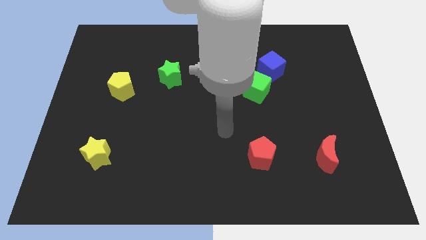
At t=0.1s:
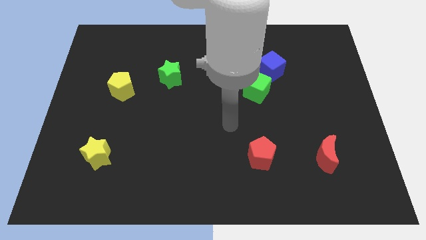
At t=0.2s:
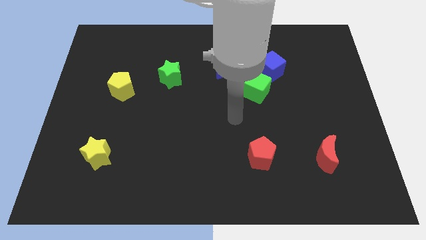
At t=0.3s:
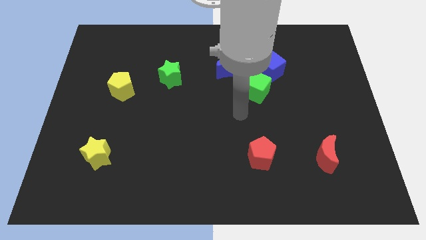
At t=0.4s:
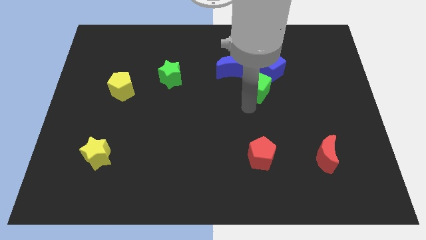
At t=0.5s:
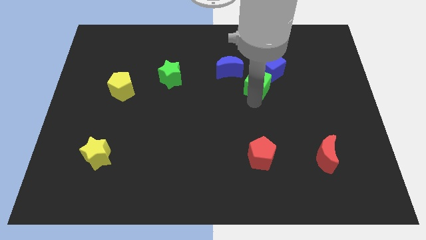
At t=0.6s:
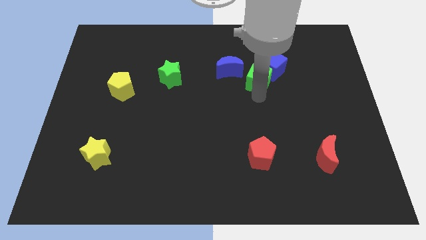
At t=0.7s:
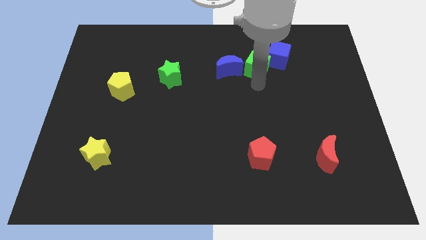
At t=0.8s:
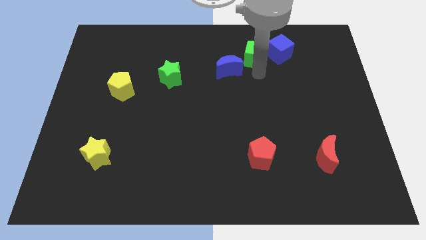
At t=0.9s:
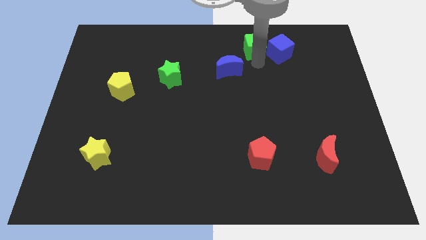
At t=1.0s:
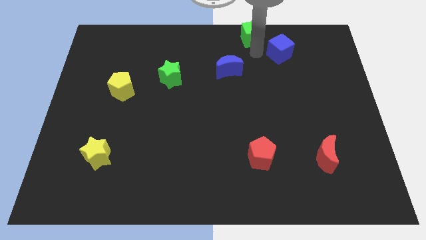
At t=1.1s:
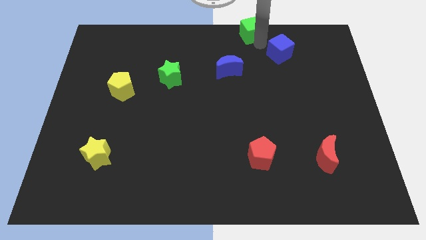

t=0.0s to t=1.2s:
pull the blue cube apart from the green cube

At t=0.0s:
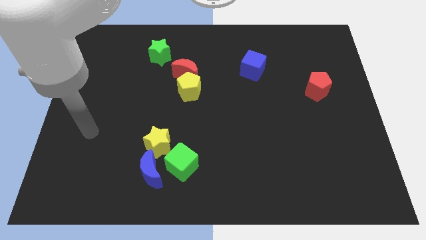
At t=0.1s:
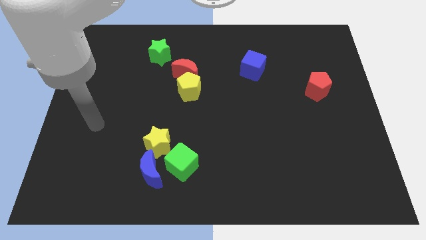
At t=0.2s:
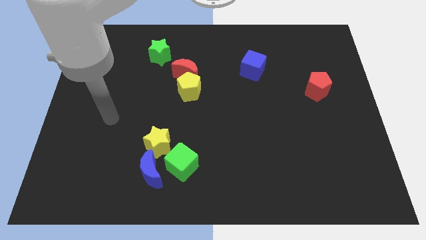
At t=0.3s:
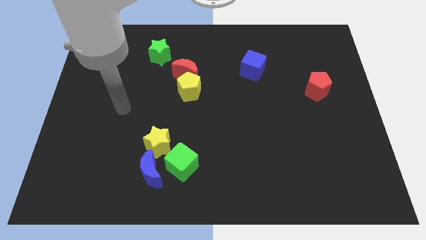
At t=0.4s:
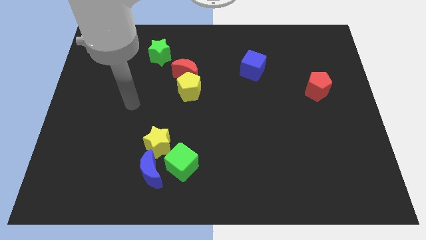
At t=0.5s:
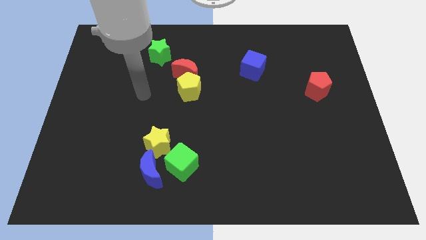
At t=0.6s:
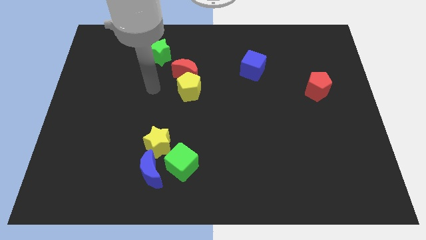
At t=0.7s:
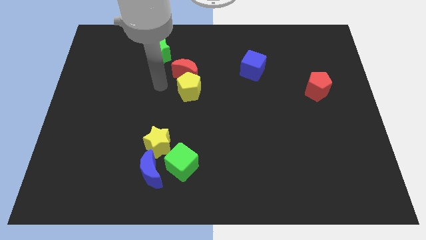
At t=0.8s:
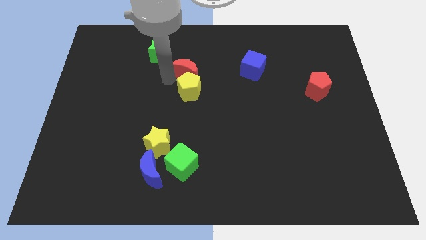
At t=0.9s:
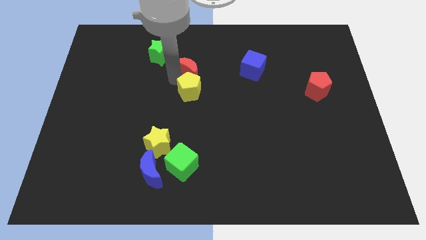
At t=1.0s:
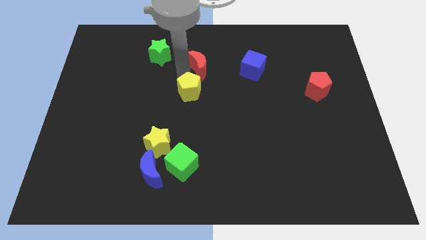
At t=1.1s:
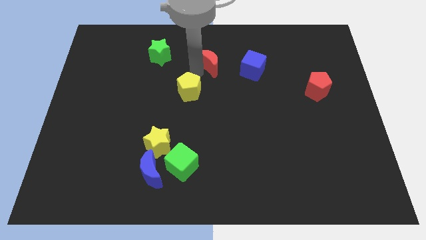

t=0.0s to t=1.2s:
move the yellow pentagon away from the red moon

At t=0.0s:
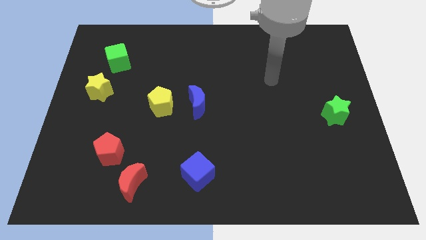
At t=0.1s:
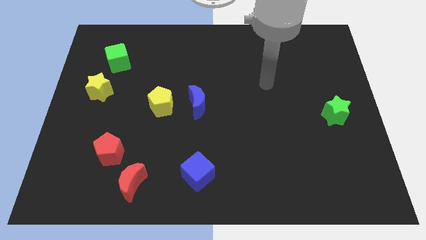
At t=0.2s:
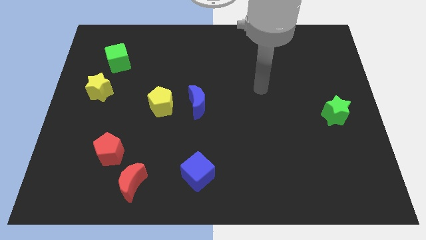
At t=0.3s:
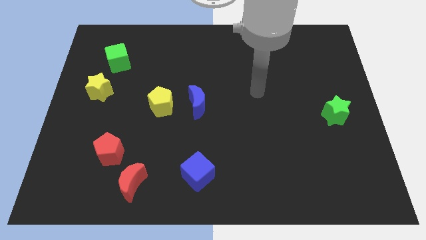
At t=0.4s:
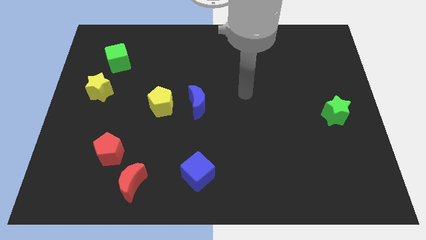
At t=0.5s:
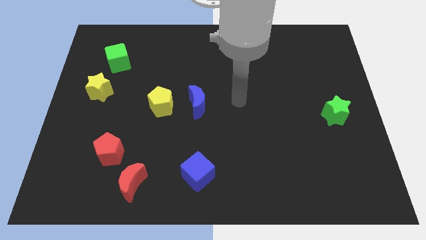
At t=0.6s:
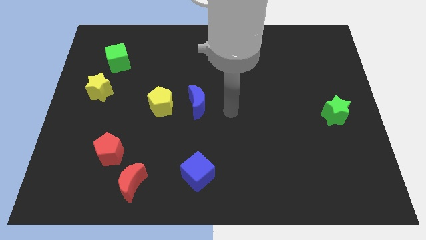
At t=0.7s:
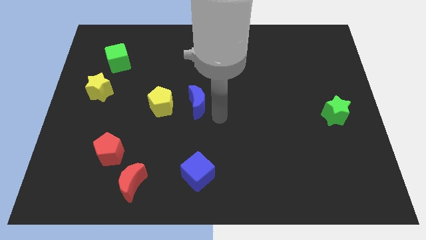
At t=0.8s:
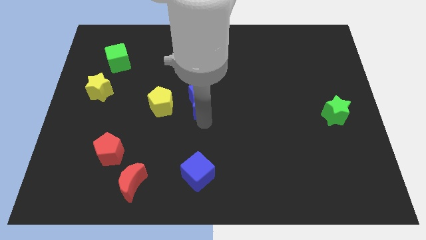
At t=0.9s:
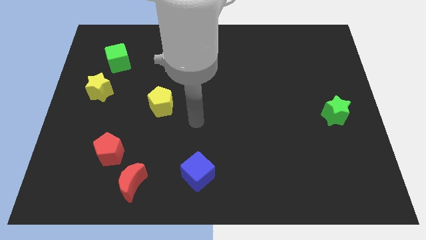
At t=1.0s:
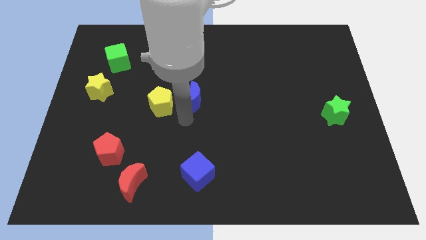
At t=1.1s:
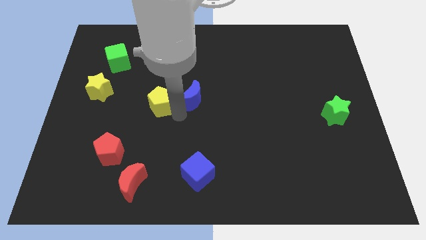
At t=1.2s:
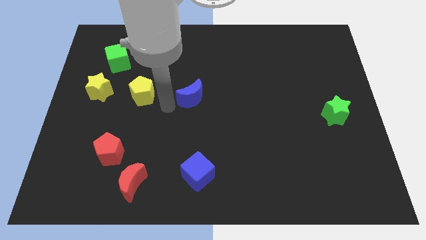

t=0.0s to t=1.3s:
separate the blue moon from the yellow pentagon

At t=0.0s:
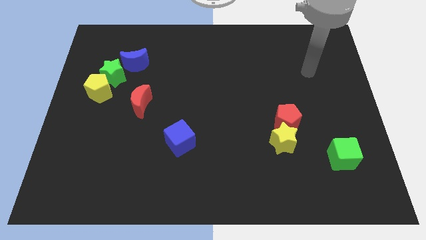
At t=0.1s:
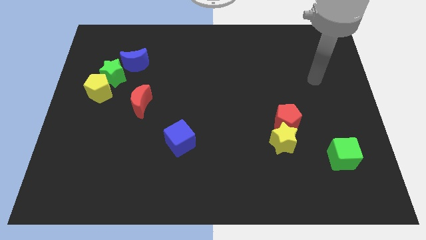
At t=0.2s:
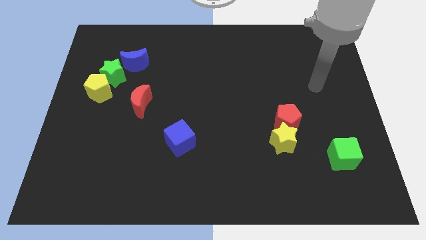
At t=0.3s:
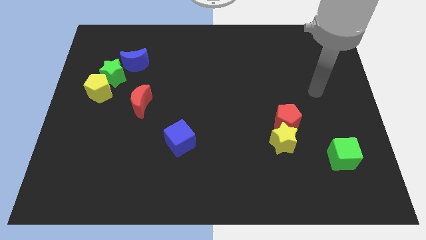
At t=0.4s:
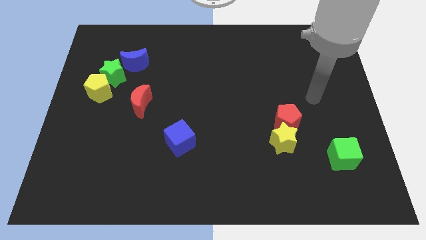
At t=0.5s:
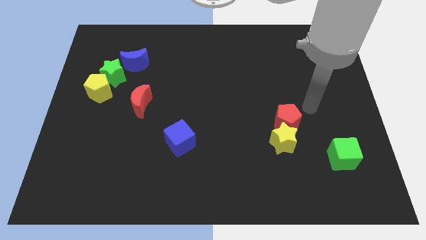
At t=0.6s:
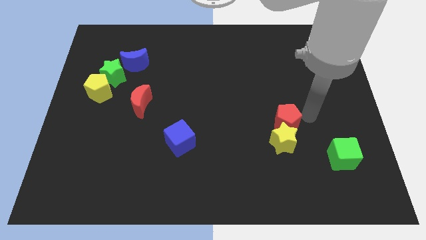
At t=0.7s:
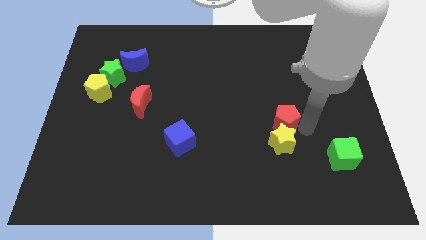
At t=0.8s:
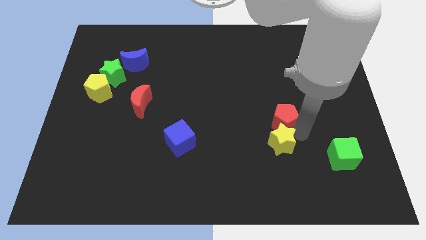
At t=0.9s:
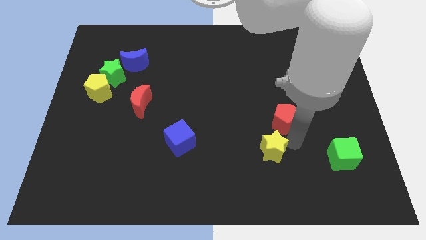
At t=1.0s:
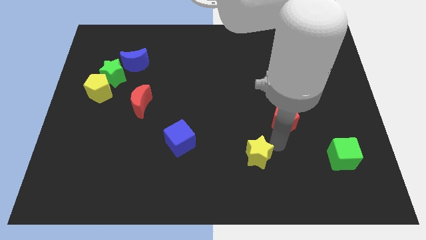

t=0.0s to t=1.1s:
pull the red pentagon apart from the yellow star

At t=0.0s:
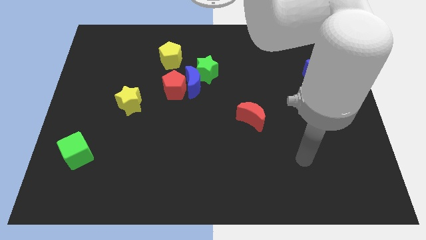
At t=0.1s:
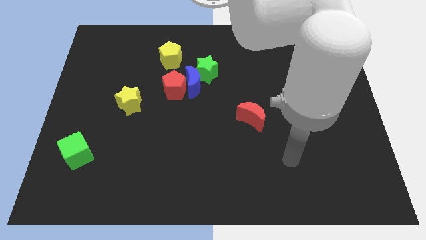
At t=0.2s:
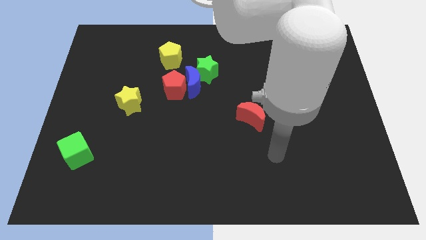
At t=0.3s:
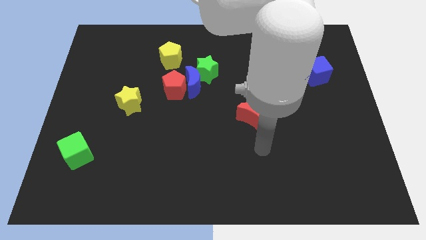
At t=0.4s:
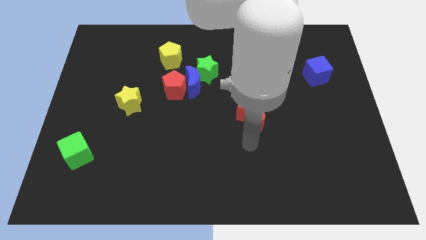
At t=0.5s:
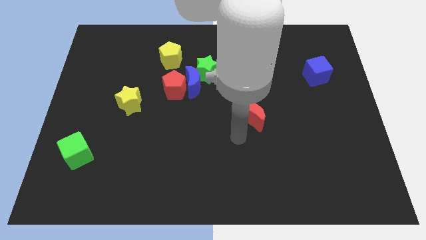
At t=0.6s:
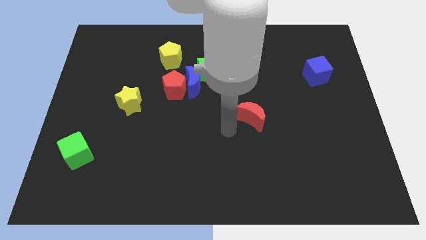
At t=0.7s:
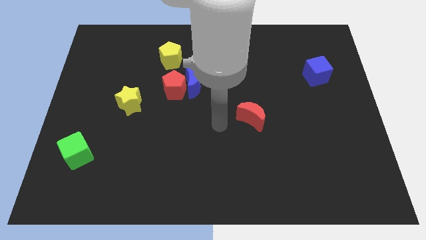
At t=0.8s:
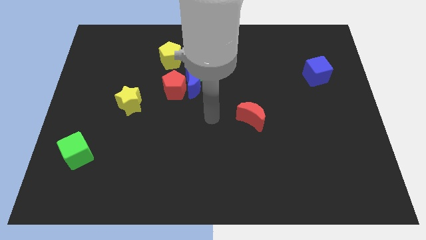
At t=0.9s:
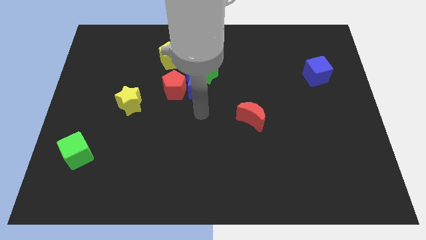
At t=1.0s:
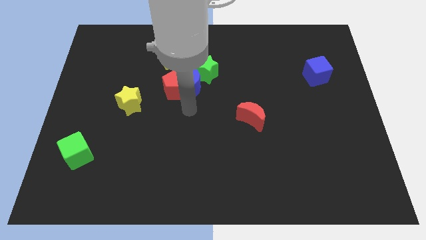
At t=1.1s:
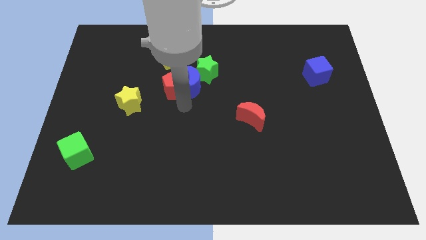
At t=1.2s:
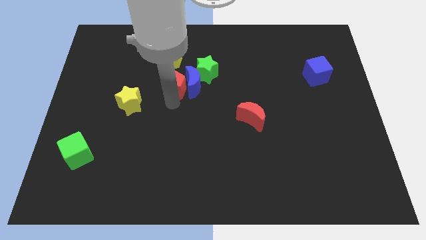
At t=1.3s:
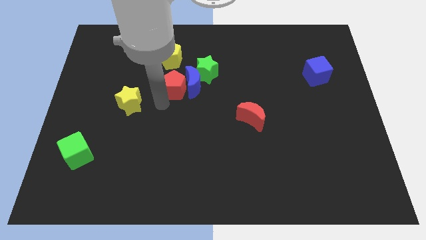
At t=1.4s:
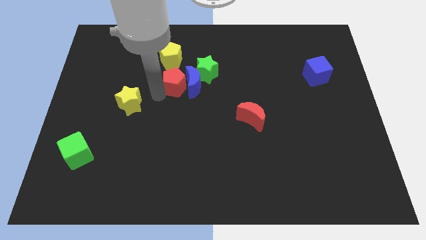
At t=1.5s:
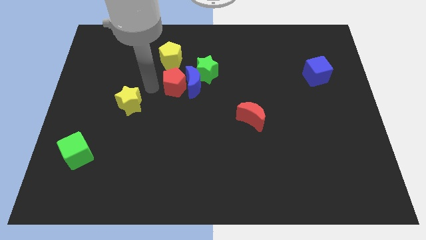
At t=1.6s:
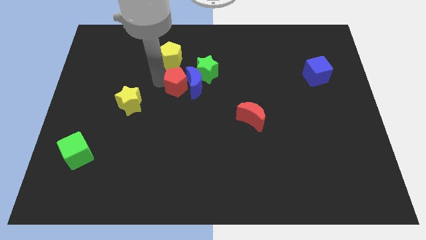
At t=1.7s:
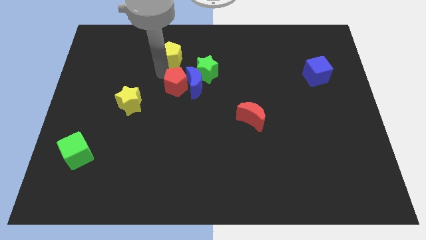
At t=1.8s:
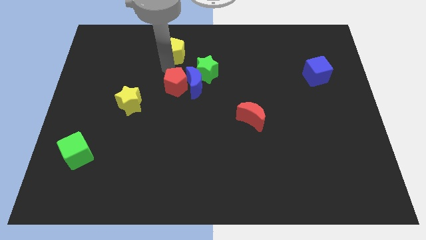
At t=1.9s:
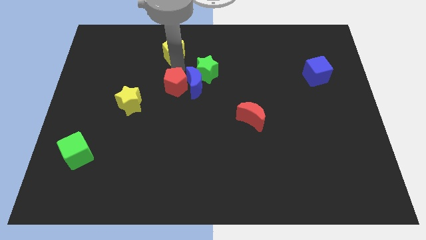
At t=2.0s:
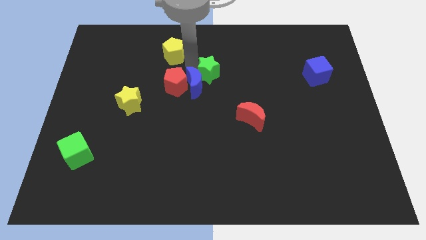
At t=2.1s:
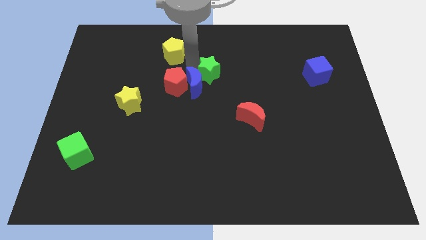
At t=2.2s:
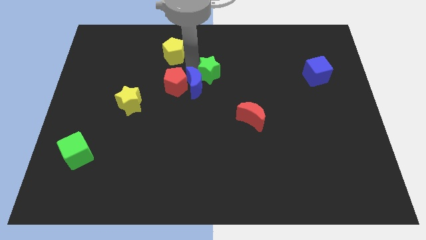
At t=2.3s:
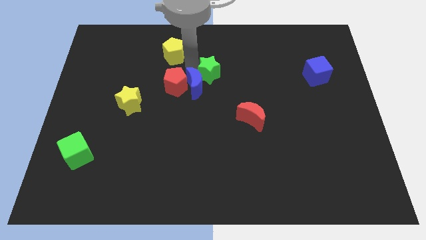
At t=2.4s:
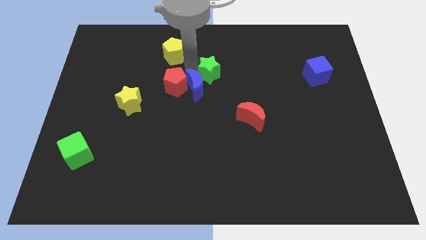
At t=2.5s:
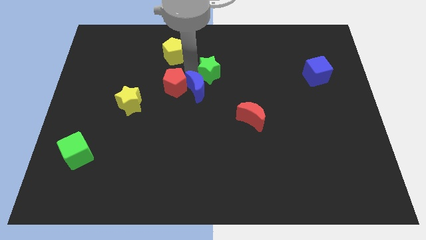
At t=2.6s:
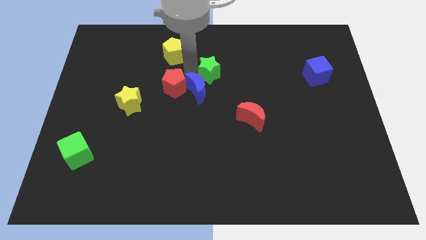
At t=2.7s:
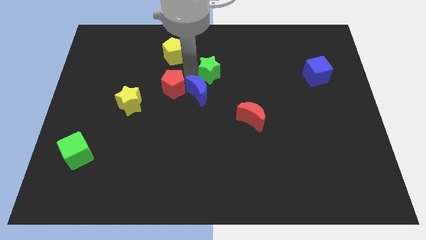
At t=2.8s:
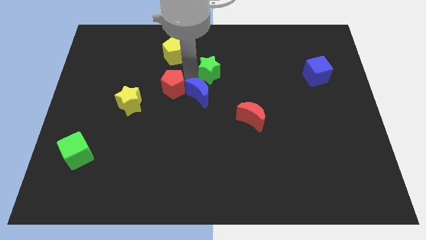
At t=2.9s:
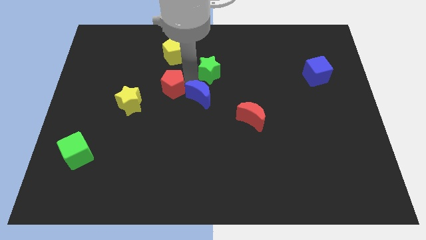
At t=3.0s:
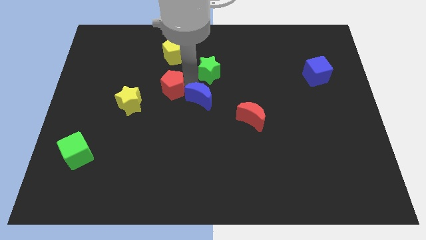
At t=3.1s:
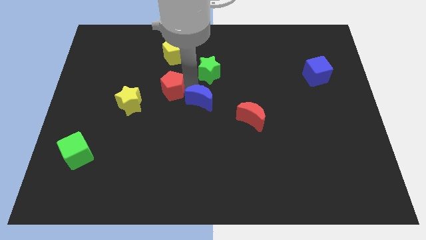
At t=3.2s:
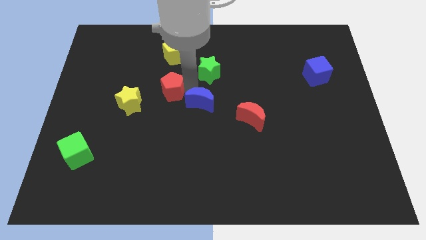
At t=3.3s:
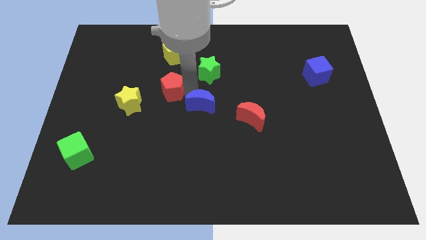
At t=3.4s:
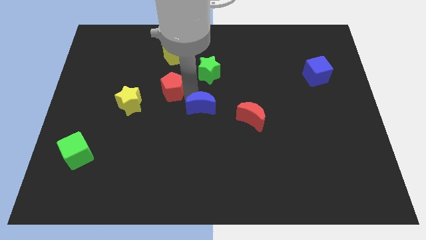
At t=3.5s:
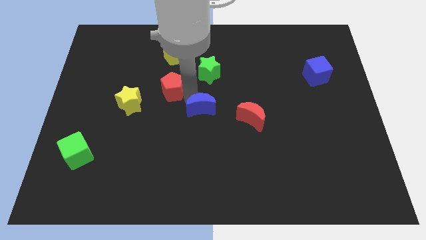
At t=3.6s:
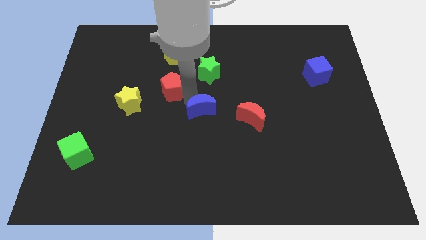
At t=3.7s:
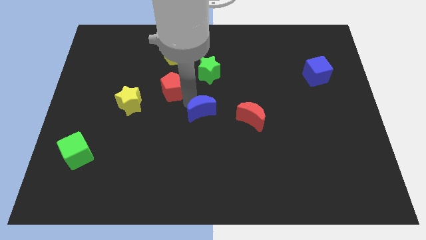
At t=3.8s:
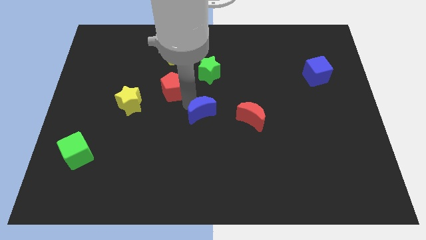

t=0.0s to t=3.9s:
pull the blue moon apart from the green star and red pentagon

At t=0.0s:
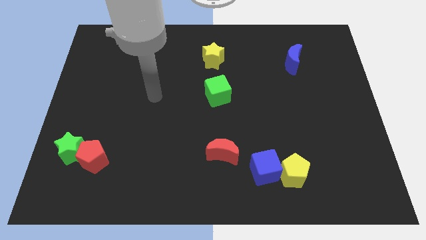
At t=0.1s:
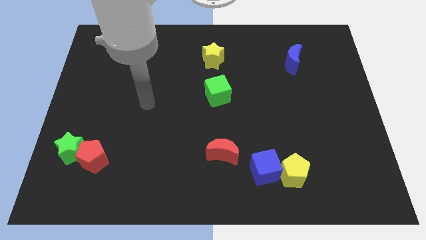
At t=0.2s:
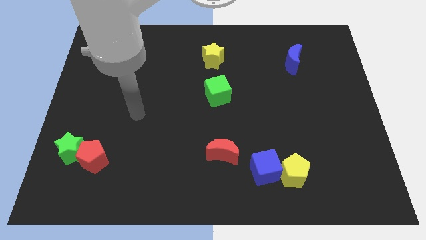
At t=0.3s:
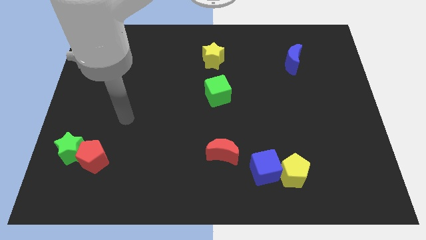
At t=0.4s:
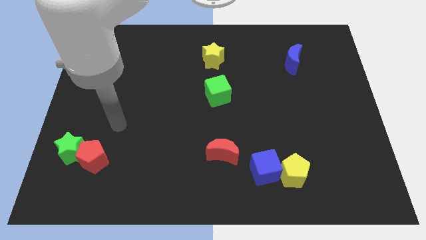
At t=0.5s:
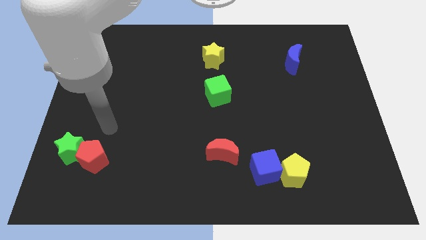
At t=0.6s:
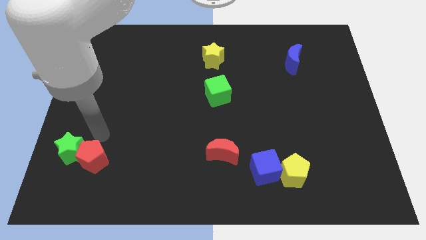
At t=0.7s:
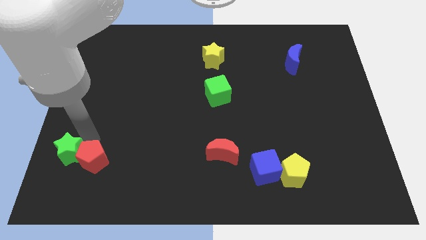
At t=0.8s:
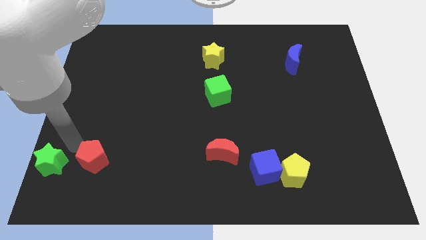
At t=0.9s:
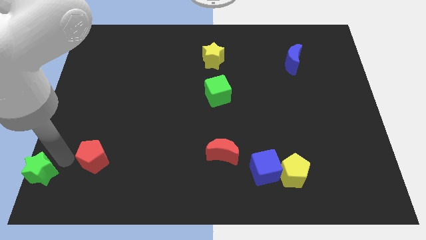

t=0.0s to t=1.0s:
separate the red pentagon from the green star
